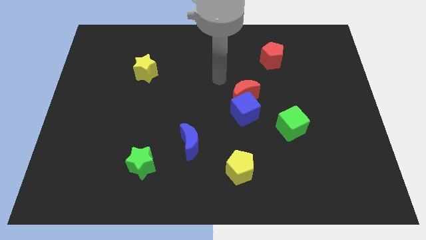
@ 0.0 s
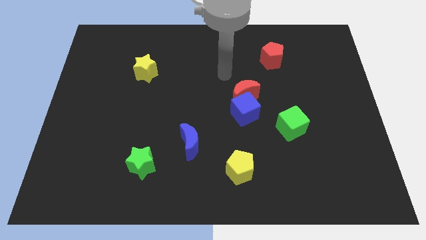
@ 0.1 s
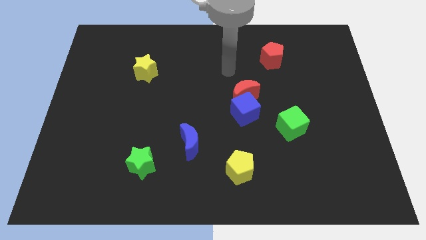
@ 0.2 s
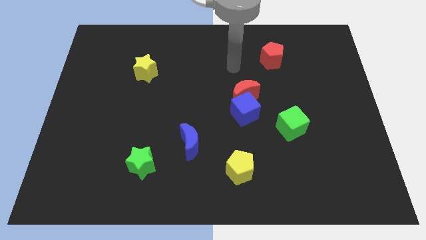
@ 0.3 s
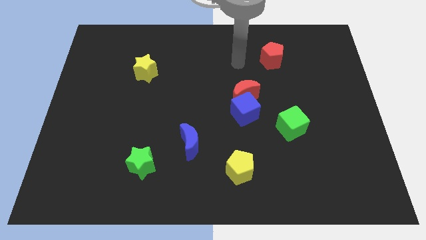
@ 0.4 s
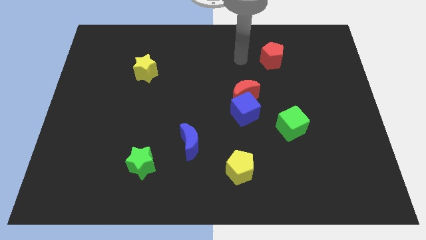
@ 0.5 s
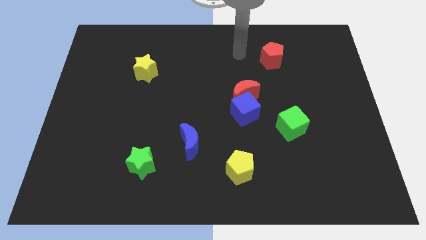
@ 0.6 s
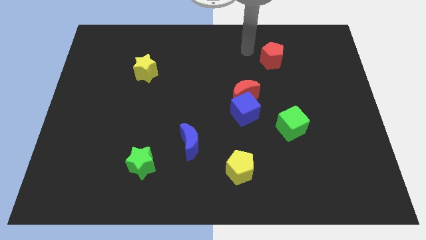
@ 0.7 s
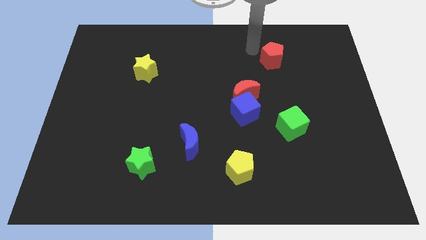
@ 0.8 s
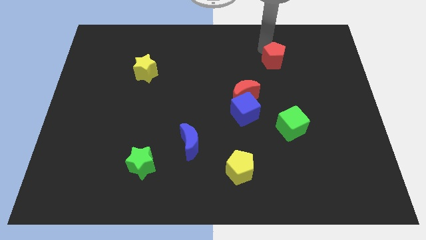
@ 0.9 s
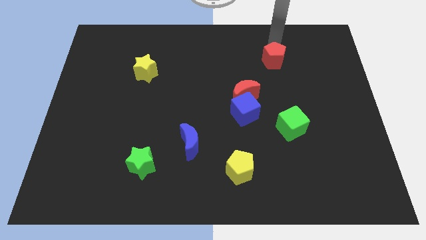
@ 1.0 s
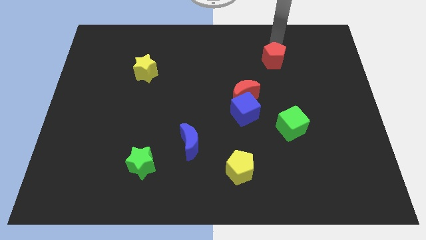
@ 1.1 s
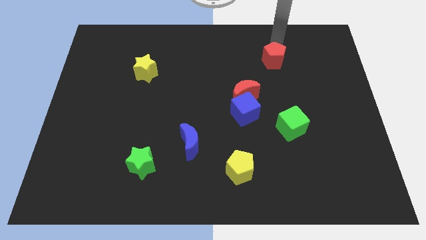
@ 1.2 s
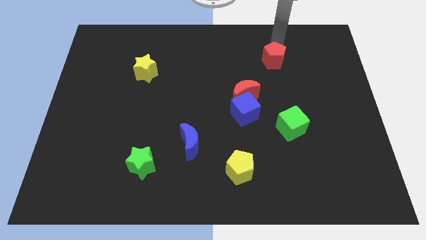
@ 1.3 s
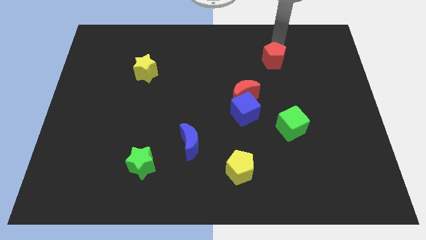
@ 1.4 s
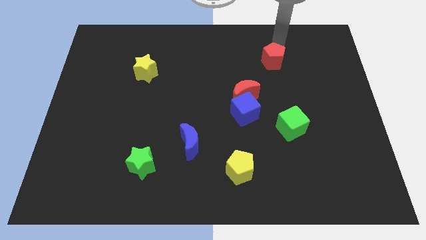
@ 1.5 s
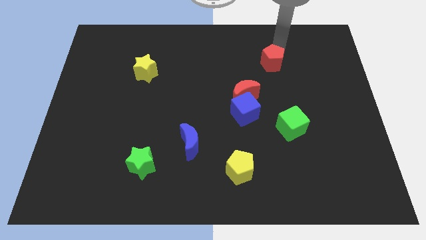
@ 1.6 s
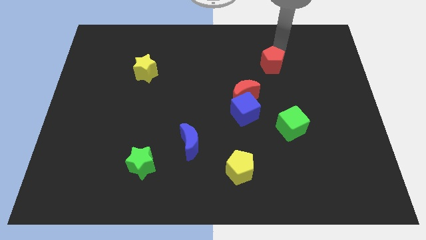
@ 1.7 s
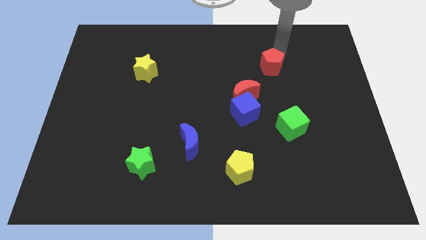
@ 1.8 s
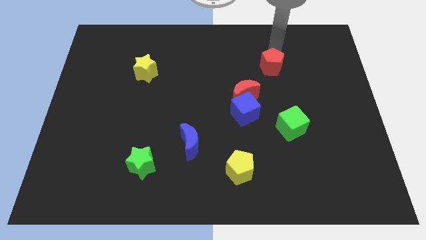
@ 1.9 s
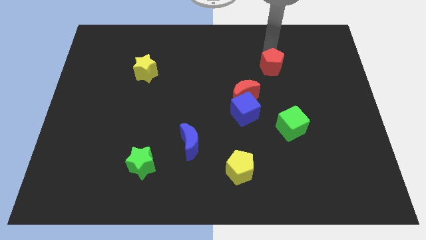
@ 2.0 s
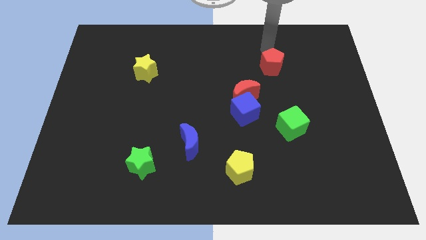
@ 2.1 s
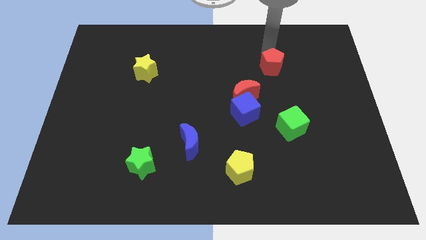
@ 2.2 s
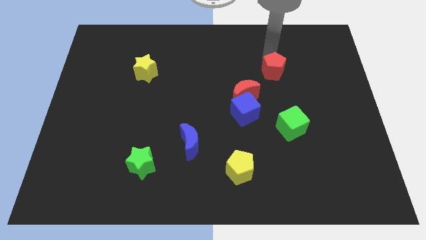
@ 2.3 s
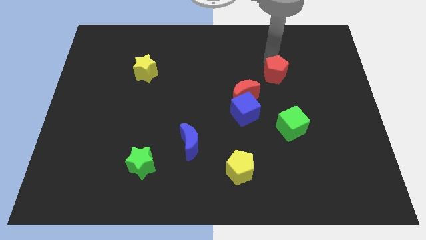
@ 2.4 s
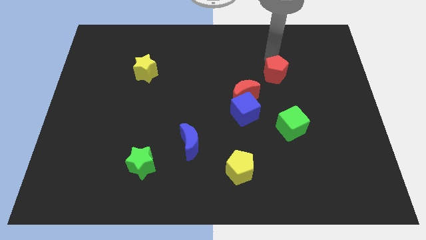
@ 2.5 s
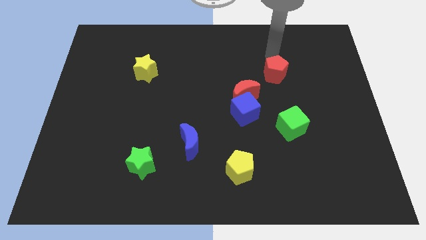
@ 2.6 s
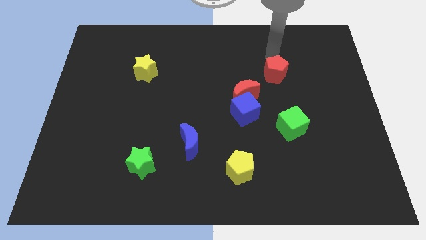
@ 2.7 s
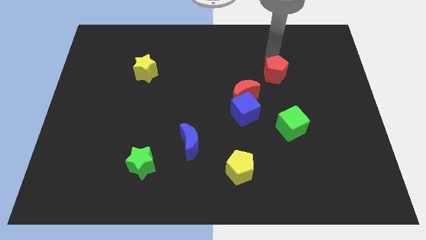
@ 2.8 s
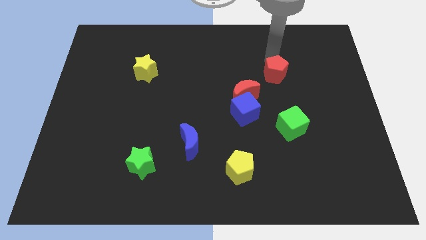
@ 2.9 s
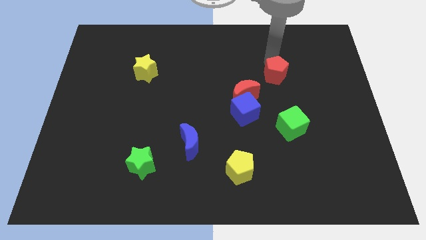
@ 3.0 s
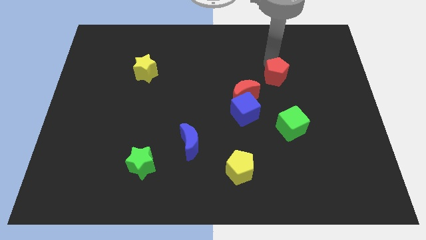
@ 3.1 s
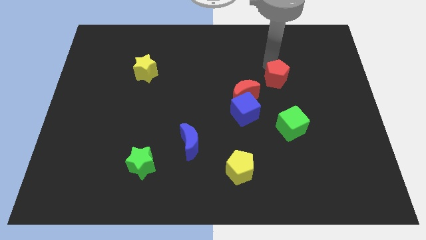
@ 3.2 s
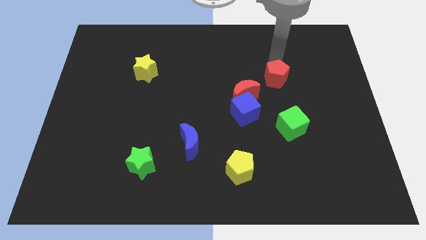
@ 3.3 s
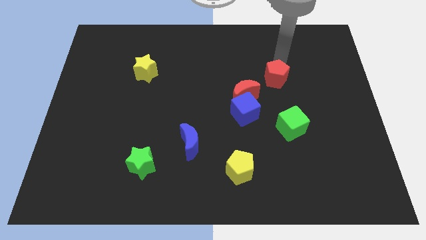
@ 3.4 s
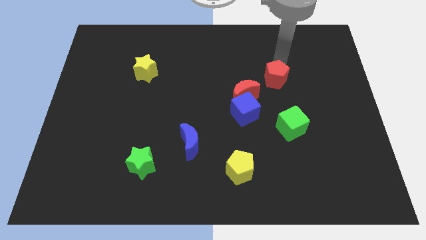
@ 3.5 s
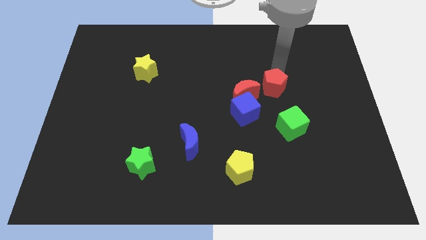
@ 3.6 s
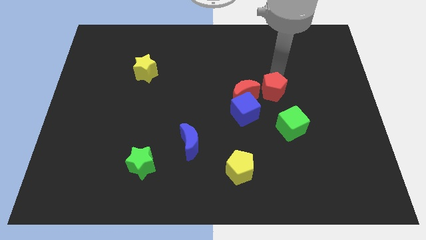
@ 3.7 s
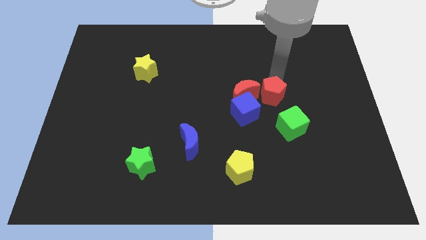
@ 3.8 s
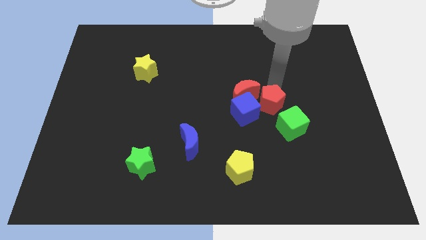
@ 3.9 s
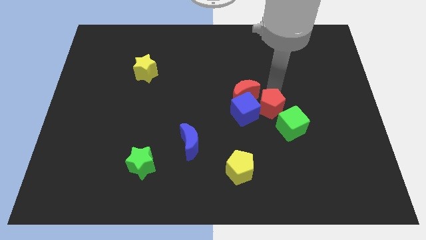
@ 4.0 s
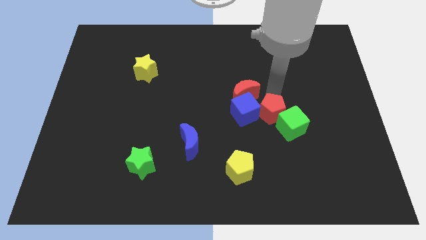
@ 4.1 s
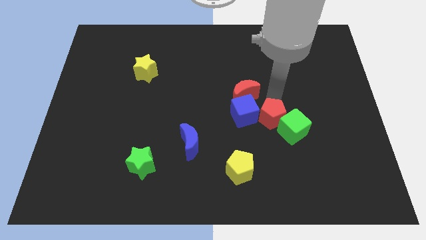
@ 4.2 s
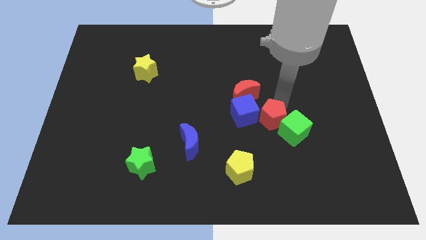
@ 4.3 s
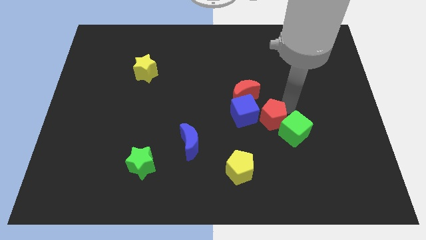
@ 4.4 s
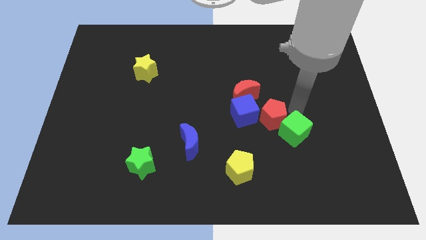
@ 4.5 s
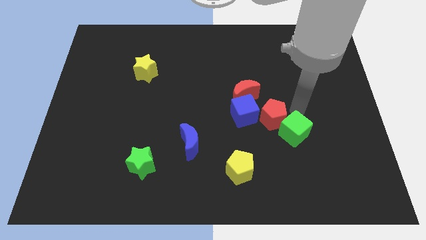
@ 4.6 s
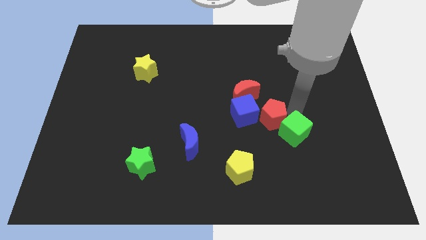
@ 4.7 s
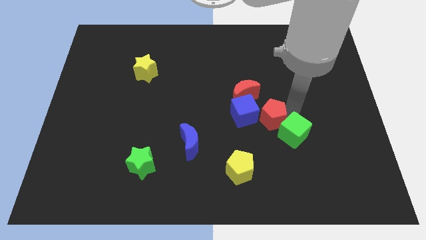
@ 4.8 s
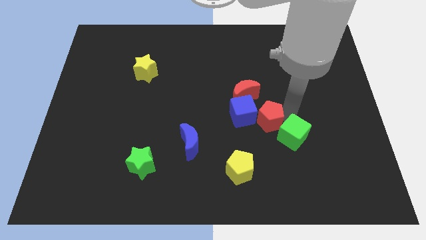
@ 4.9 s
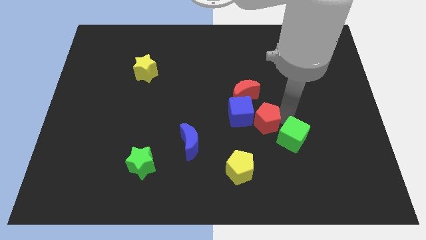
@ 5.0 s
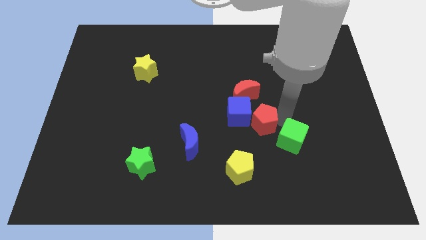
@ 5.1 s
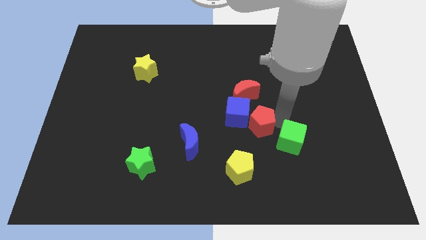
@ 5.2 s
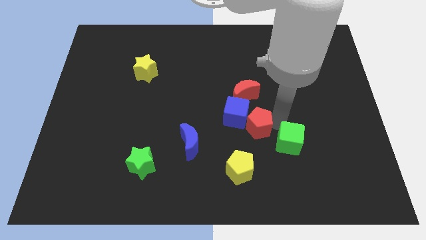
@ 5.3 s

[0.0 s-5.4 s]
move the red pentagon to the top of the yellow pentagon

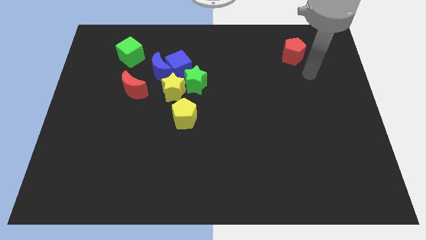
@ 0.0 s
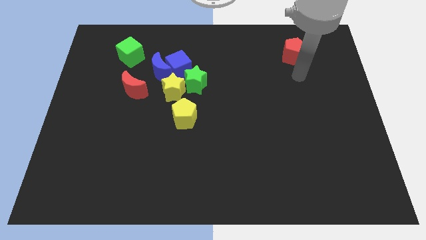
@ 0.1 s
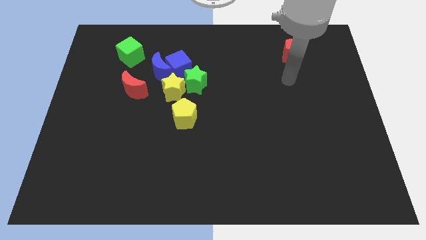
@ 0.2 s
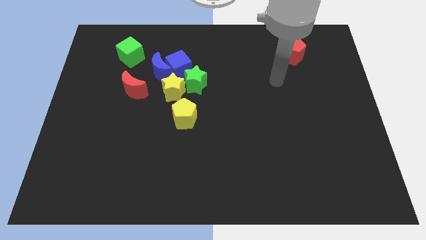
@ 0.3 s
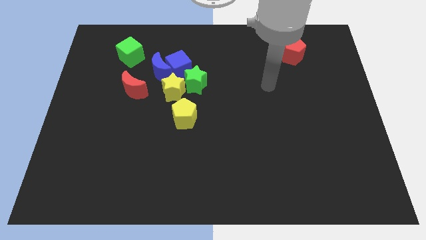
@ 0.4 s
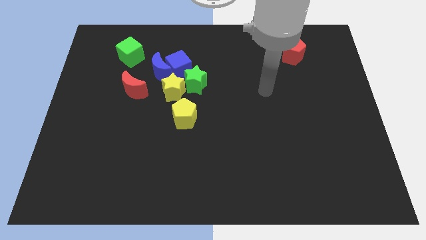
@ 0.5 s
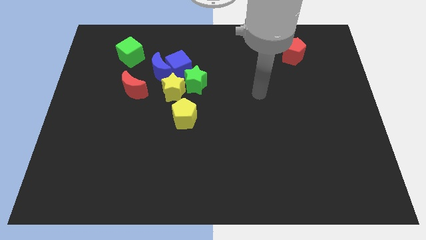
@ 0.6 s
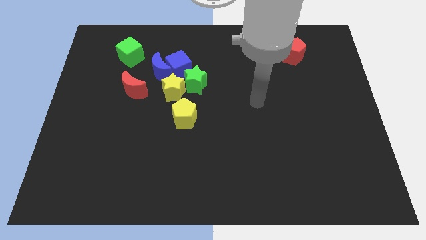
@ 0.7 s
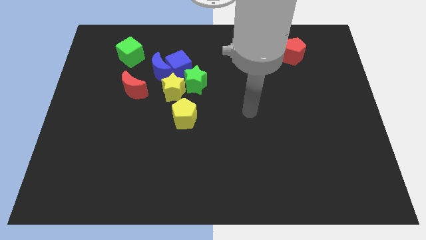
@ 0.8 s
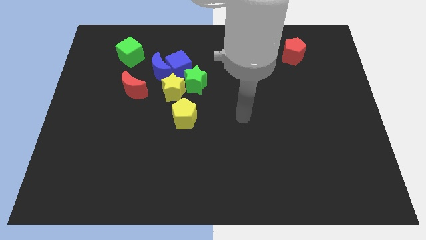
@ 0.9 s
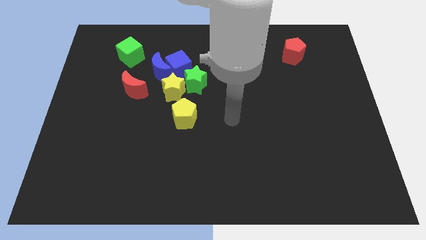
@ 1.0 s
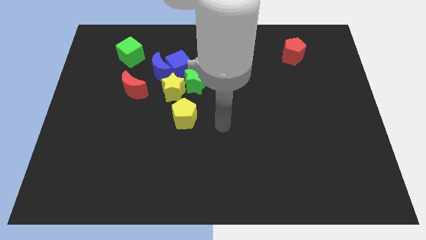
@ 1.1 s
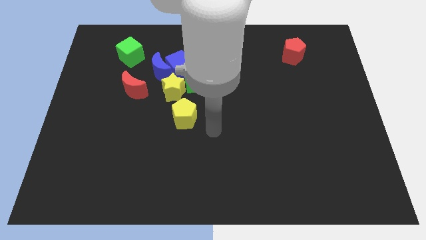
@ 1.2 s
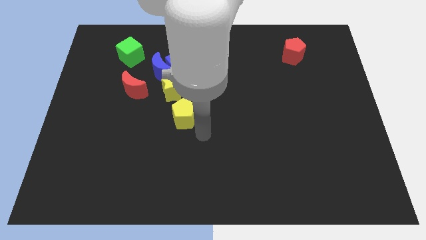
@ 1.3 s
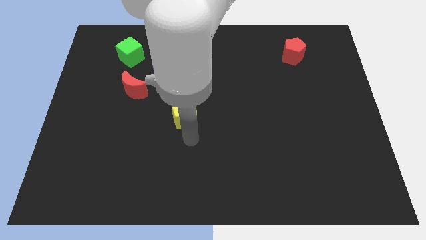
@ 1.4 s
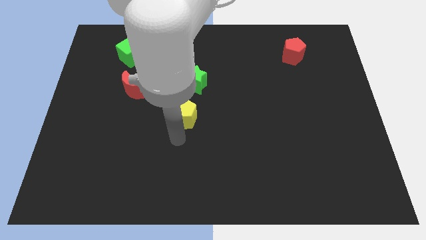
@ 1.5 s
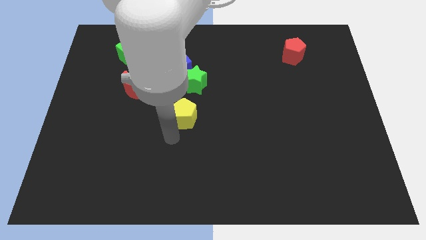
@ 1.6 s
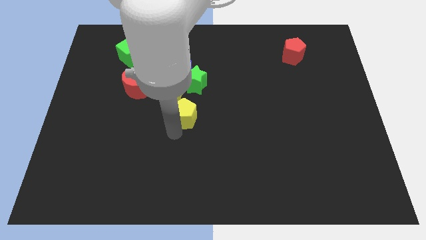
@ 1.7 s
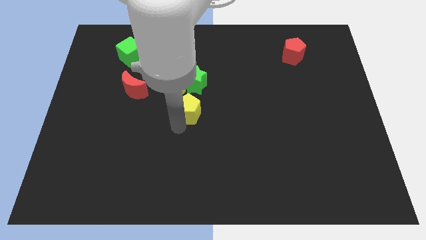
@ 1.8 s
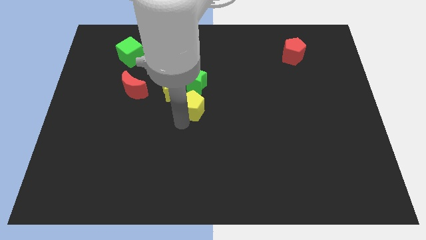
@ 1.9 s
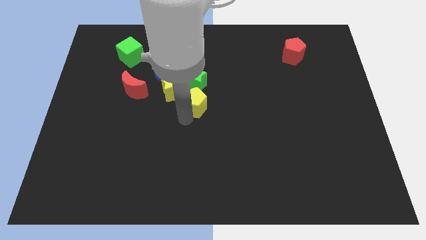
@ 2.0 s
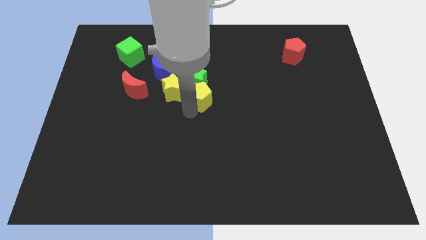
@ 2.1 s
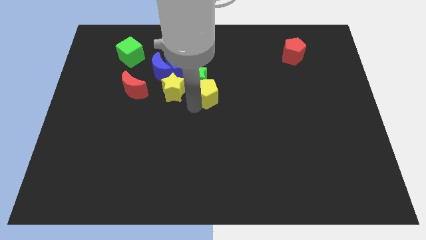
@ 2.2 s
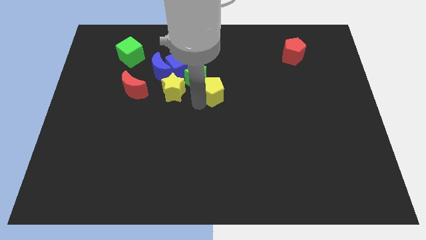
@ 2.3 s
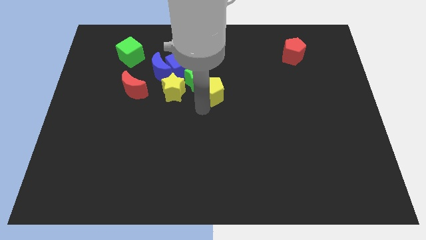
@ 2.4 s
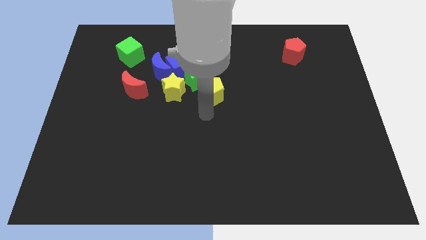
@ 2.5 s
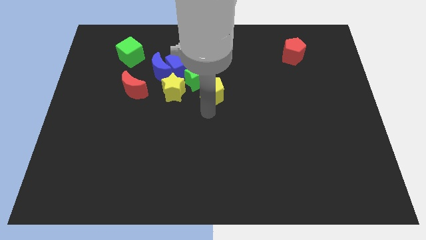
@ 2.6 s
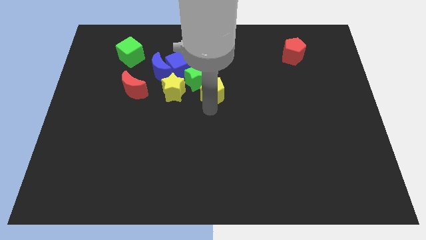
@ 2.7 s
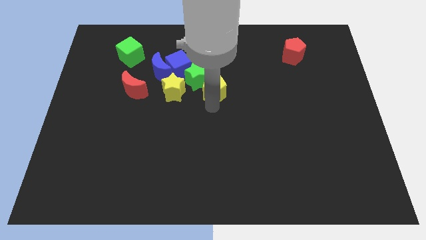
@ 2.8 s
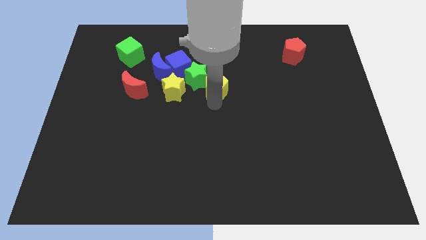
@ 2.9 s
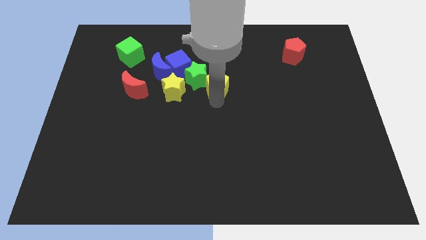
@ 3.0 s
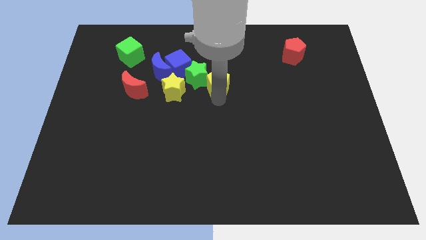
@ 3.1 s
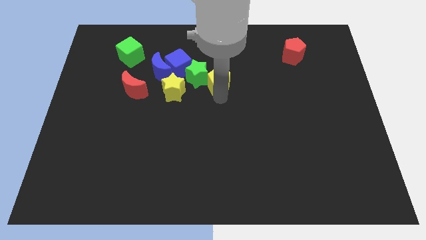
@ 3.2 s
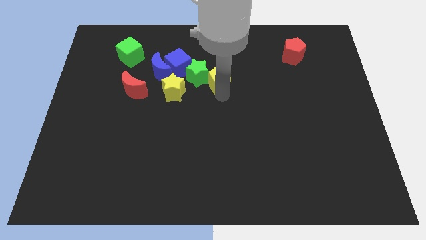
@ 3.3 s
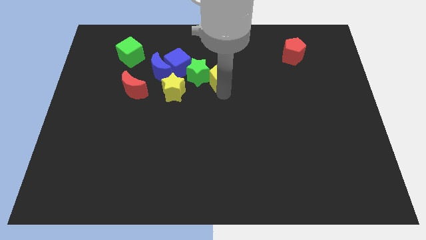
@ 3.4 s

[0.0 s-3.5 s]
put the yellow pentagon just right of the blue cube
